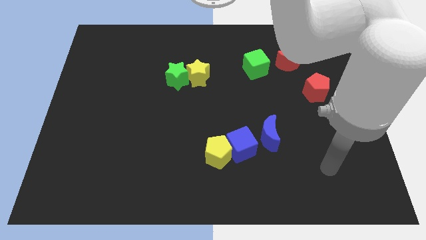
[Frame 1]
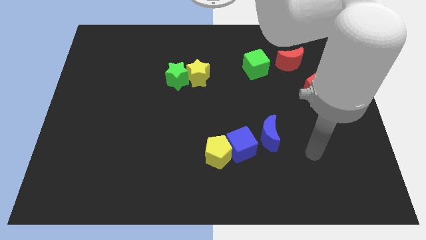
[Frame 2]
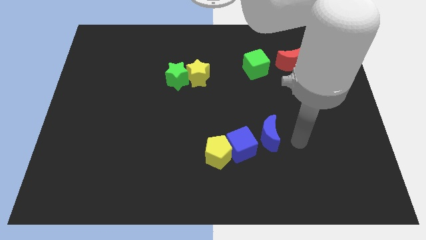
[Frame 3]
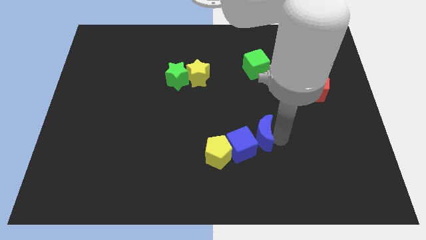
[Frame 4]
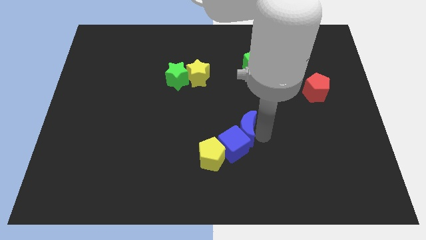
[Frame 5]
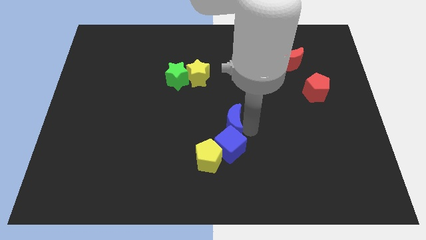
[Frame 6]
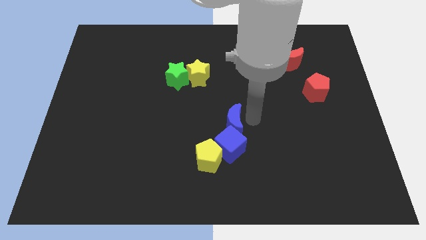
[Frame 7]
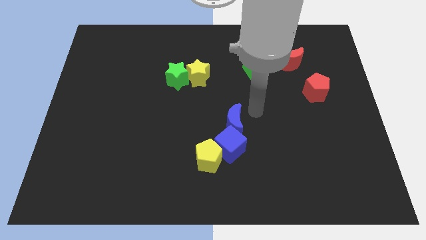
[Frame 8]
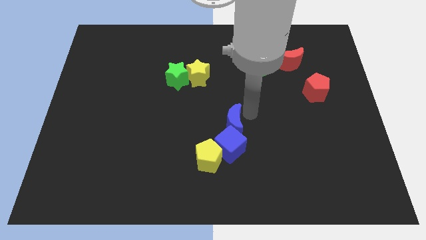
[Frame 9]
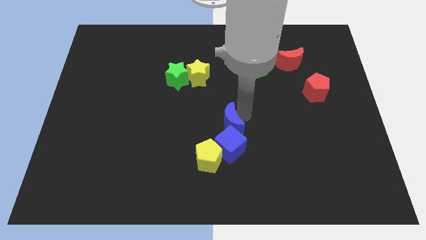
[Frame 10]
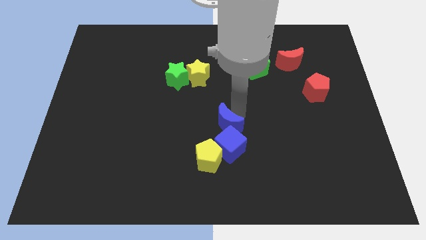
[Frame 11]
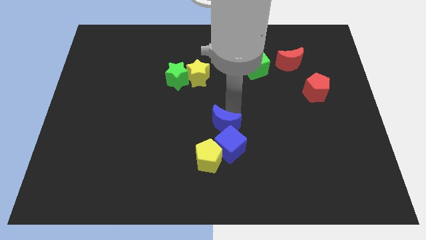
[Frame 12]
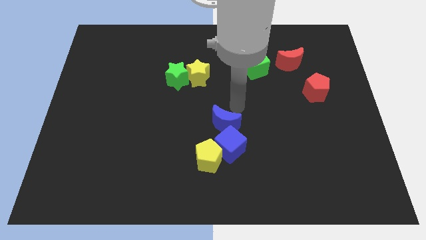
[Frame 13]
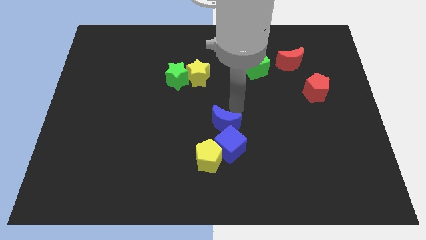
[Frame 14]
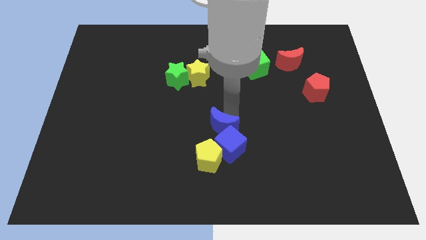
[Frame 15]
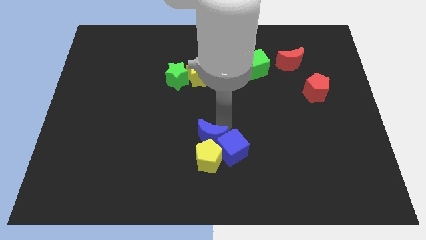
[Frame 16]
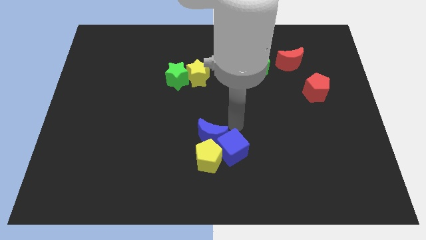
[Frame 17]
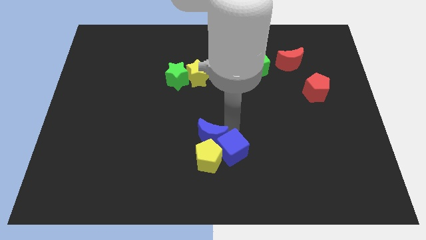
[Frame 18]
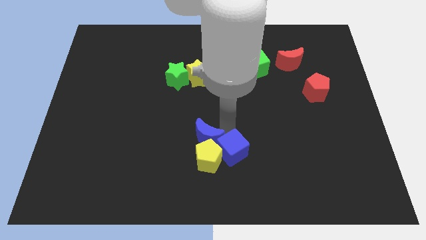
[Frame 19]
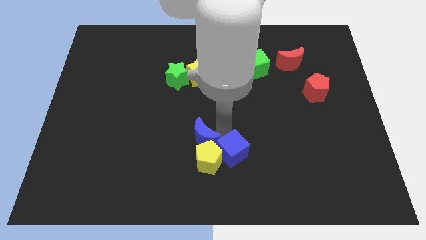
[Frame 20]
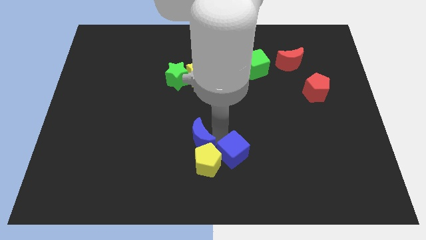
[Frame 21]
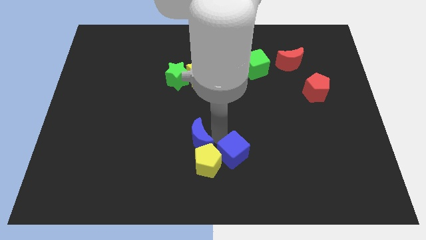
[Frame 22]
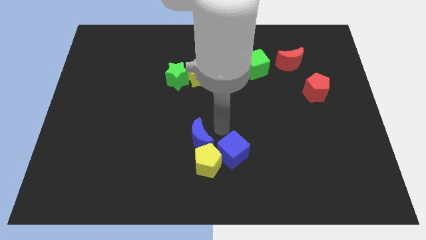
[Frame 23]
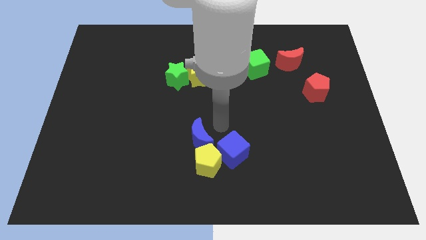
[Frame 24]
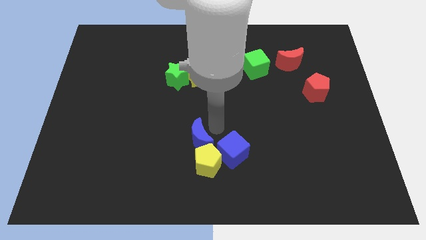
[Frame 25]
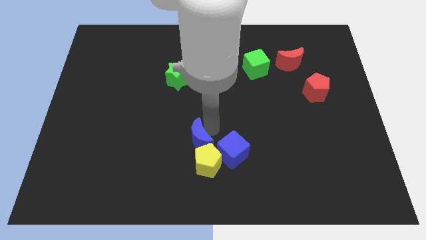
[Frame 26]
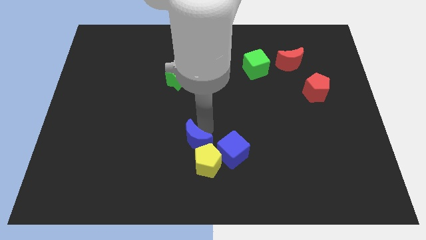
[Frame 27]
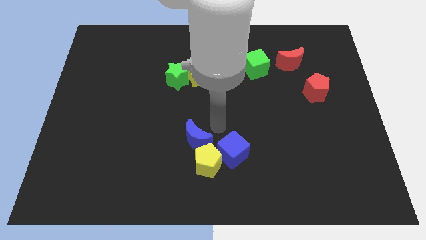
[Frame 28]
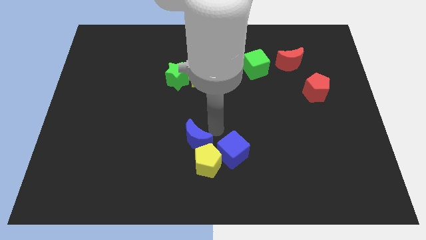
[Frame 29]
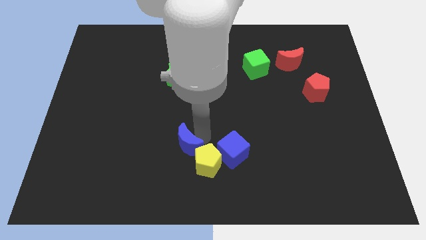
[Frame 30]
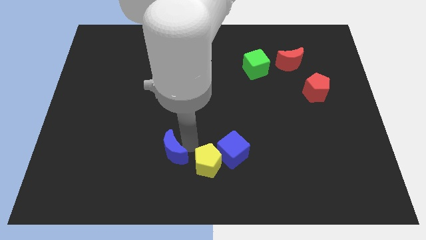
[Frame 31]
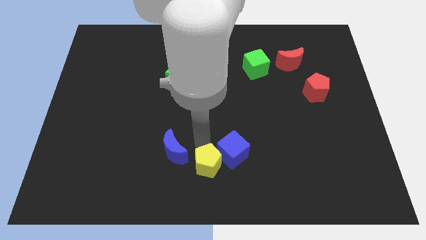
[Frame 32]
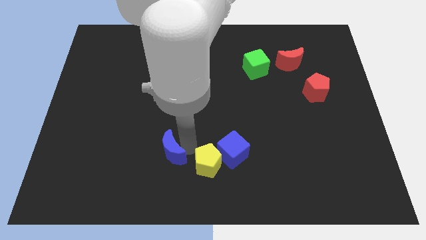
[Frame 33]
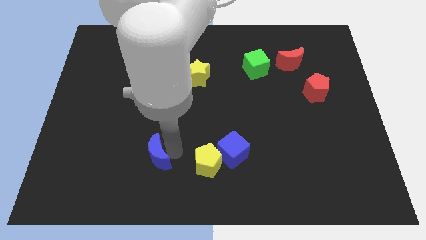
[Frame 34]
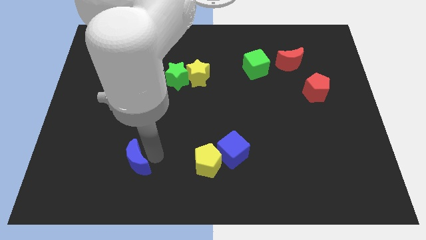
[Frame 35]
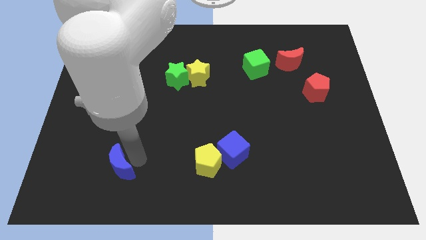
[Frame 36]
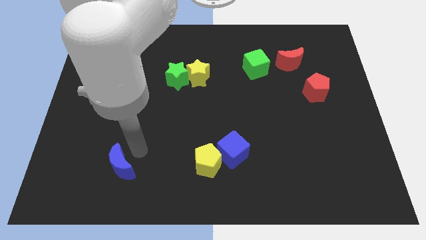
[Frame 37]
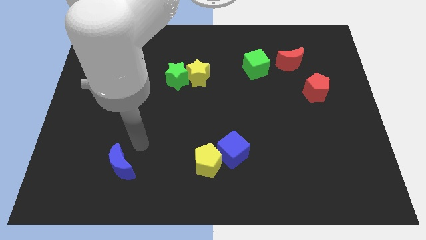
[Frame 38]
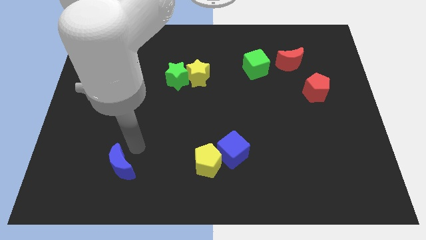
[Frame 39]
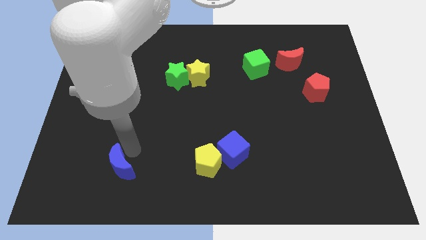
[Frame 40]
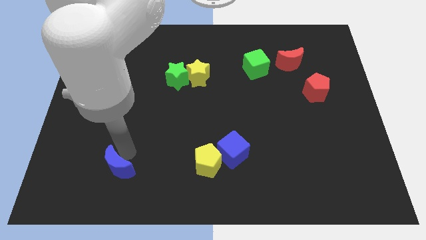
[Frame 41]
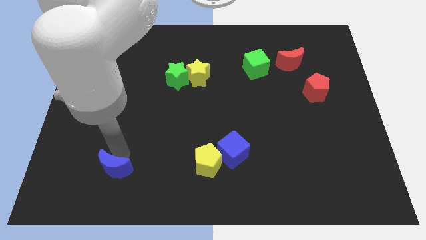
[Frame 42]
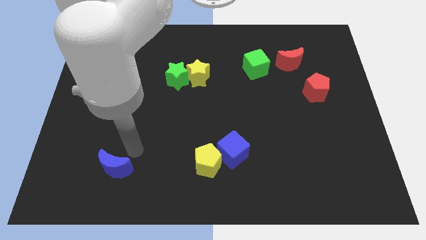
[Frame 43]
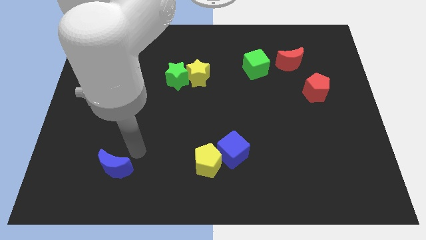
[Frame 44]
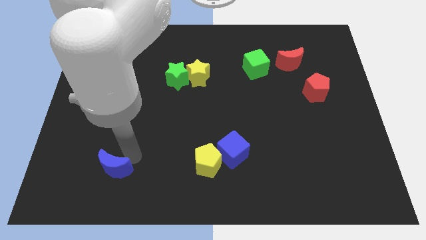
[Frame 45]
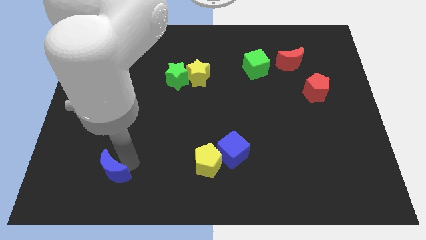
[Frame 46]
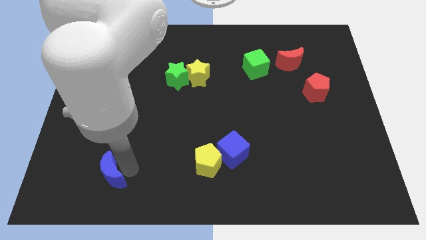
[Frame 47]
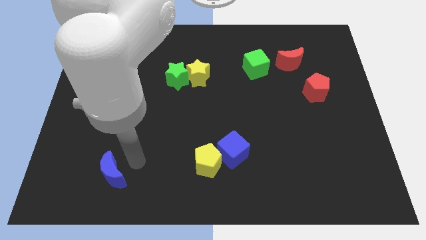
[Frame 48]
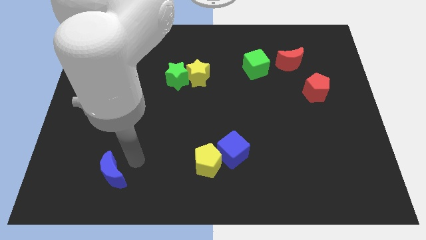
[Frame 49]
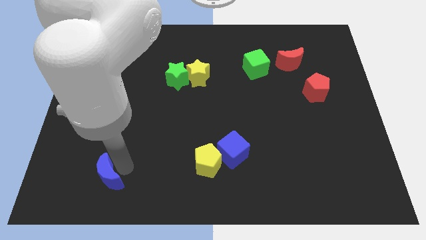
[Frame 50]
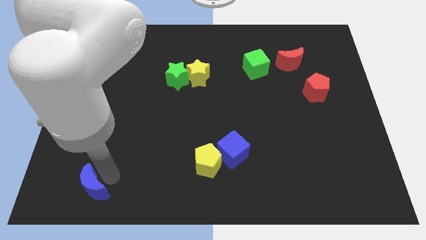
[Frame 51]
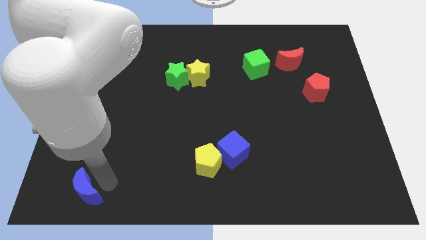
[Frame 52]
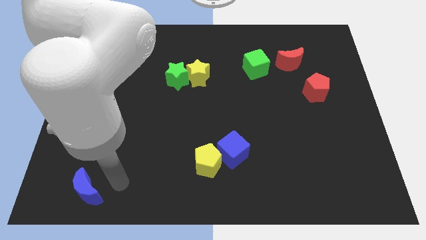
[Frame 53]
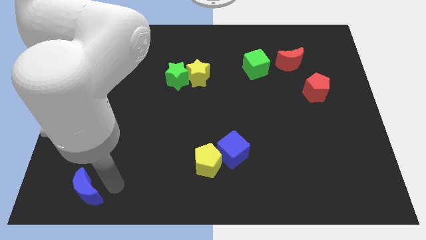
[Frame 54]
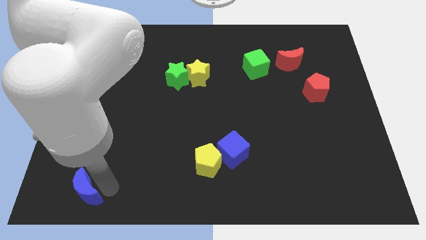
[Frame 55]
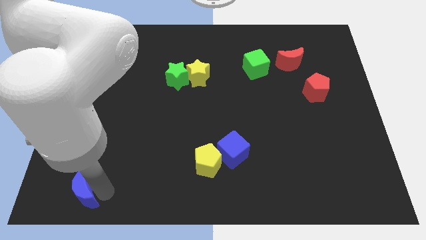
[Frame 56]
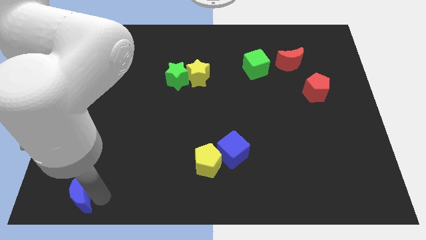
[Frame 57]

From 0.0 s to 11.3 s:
put the blue moon to the bottom left of the board

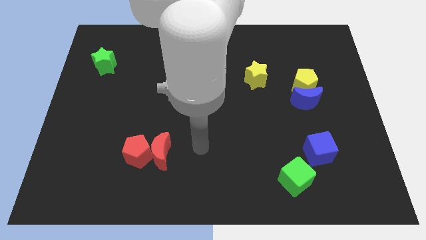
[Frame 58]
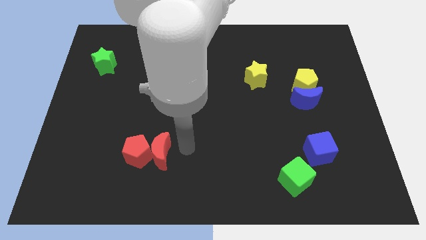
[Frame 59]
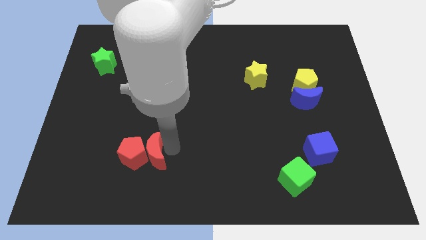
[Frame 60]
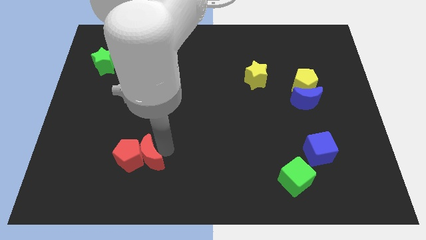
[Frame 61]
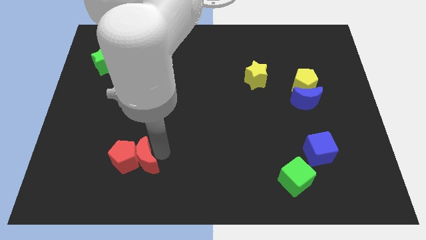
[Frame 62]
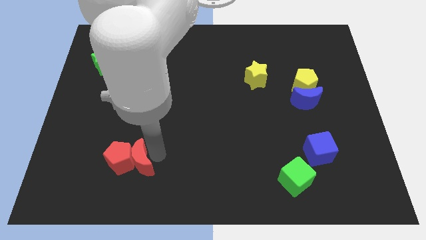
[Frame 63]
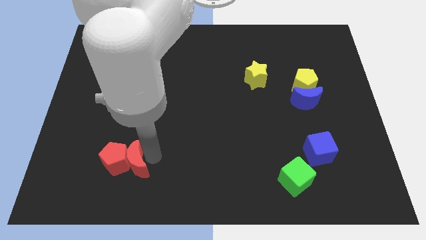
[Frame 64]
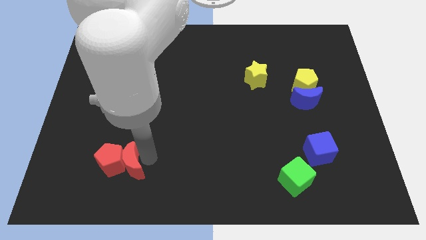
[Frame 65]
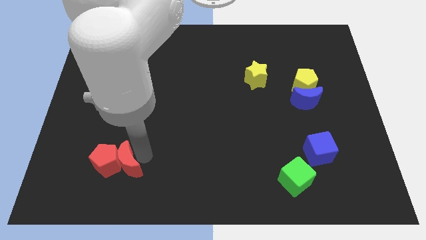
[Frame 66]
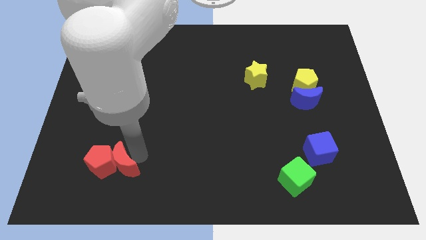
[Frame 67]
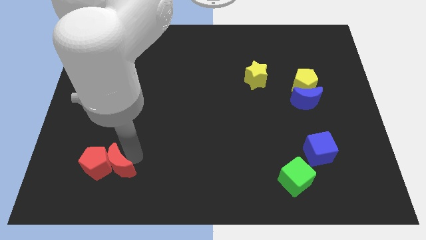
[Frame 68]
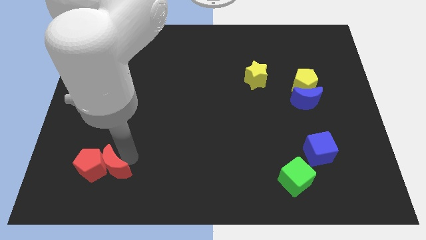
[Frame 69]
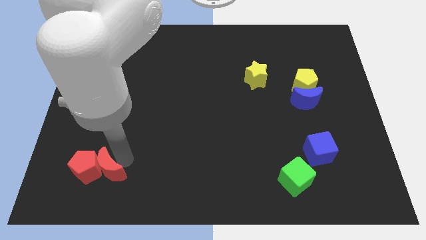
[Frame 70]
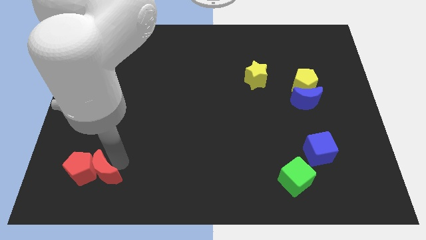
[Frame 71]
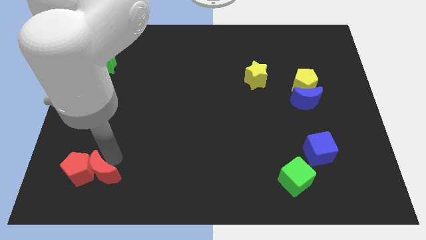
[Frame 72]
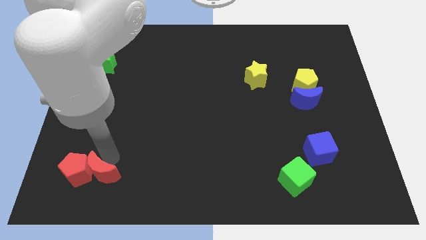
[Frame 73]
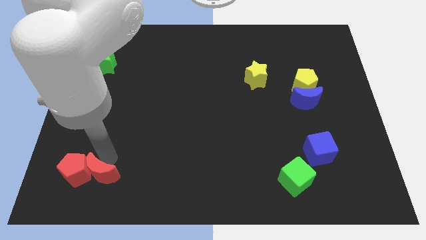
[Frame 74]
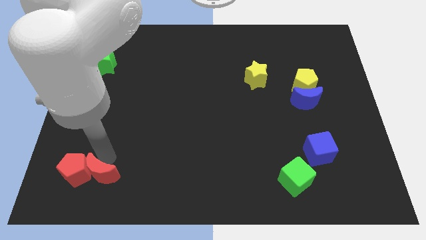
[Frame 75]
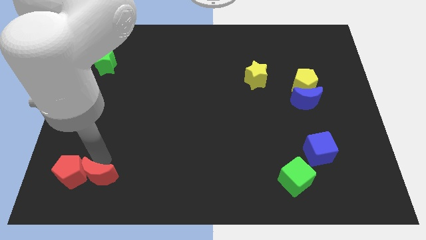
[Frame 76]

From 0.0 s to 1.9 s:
push the red pentagon to the bottom left of the board
